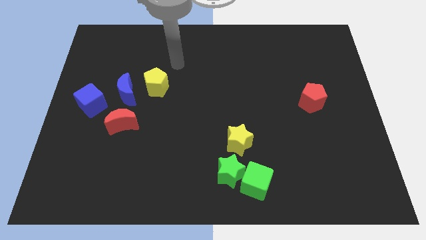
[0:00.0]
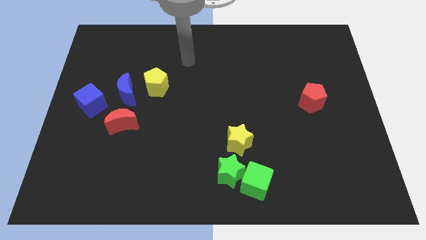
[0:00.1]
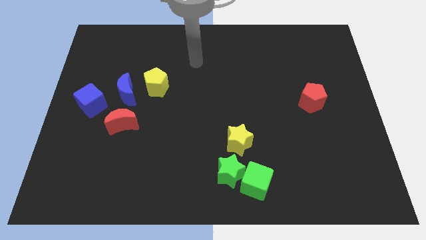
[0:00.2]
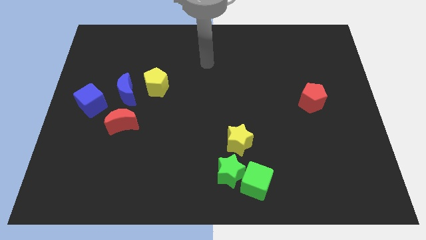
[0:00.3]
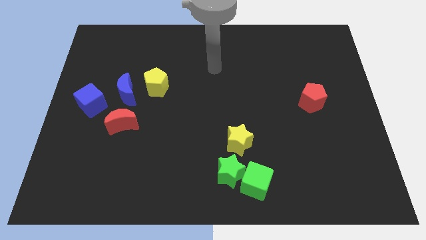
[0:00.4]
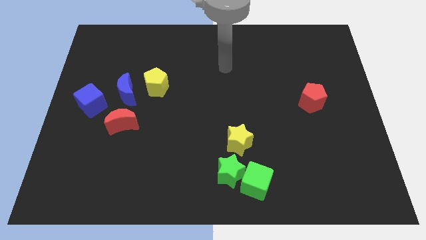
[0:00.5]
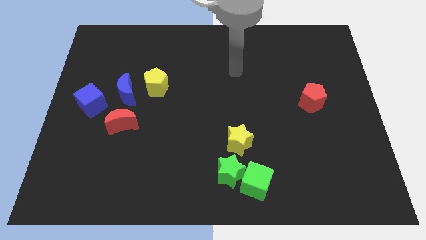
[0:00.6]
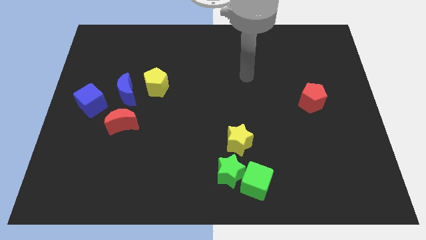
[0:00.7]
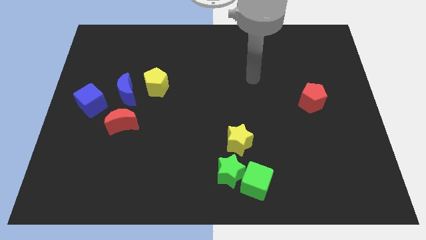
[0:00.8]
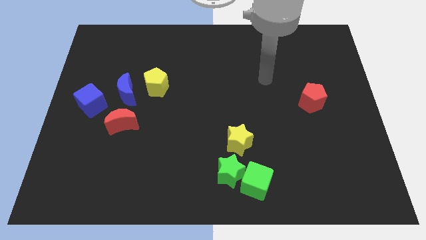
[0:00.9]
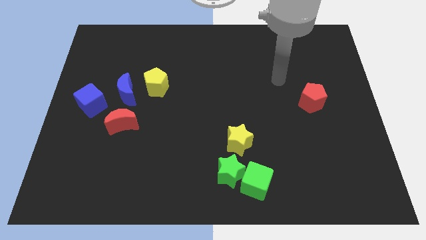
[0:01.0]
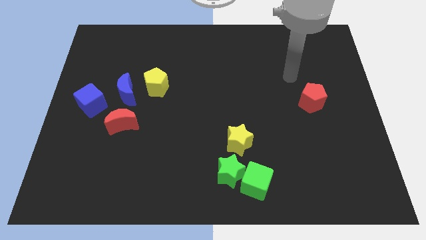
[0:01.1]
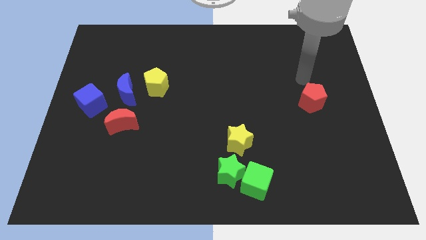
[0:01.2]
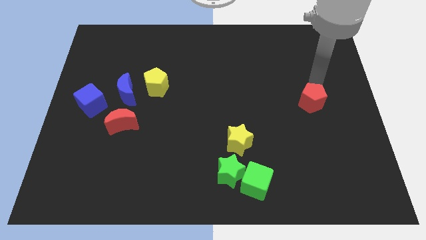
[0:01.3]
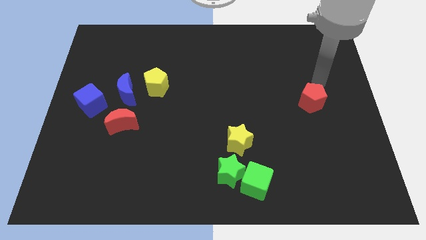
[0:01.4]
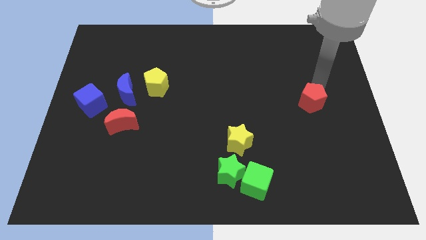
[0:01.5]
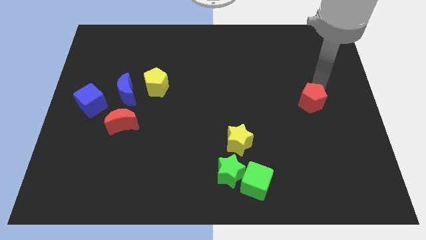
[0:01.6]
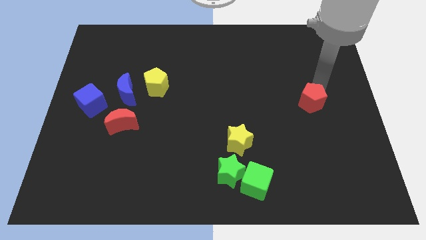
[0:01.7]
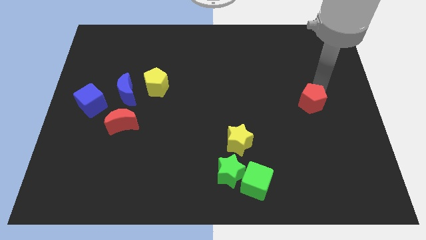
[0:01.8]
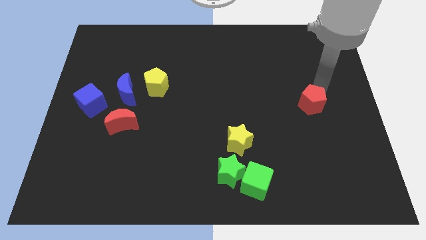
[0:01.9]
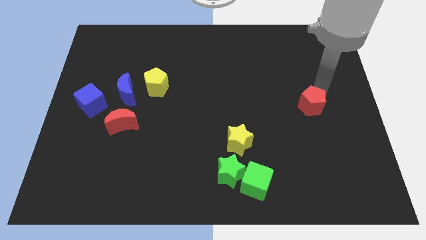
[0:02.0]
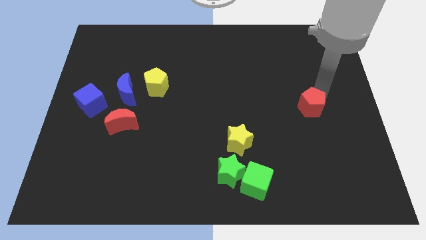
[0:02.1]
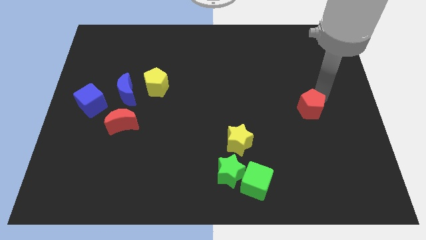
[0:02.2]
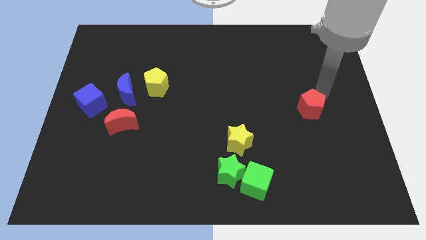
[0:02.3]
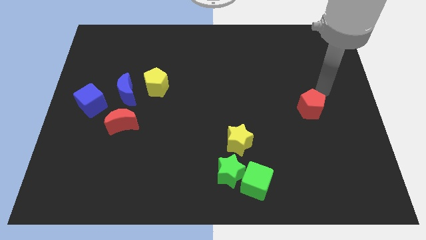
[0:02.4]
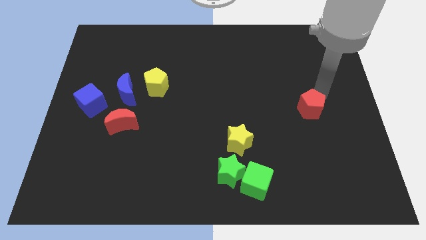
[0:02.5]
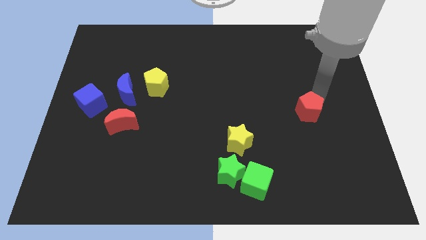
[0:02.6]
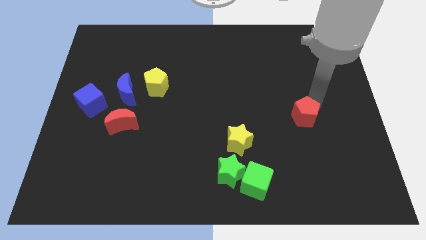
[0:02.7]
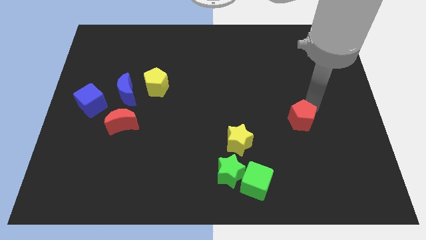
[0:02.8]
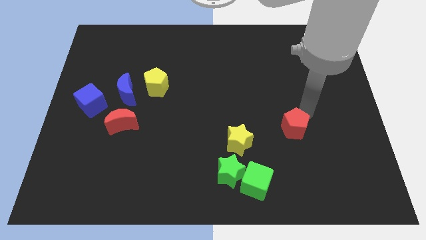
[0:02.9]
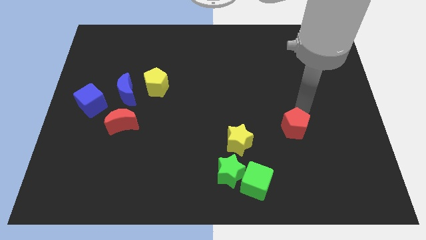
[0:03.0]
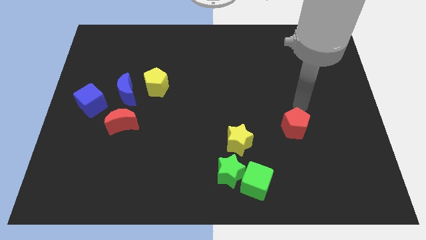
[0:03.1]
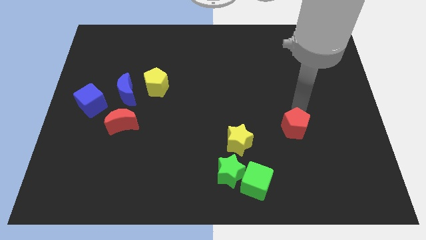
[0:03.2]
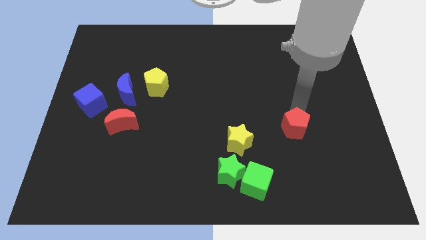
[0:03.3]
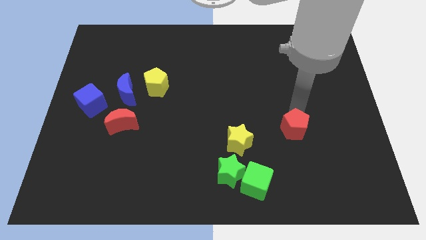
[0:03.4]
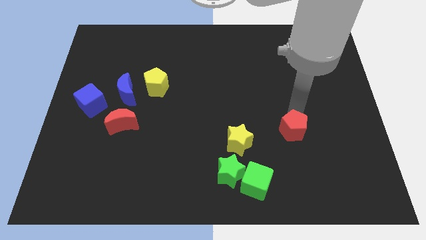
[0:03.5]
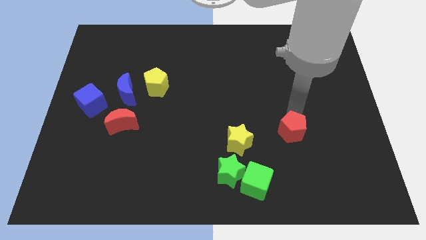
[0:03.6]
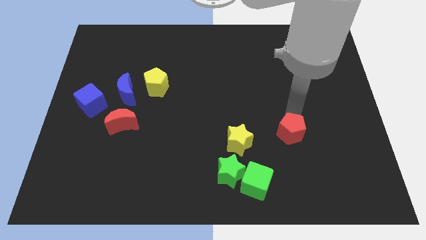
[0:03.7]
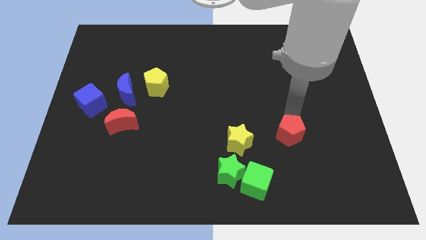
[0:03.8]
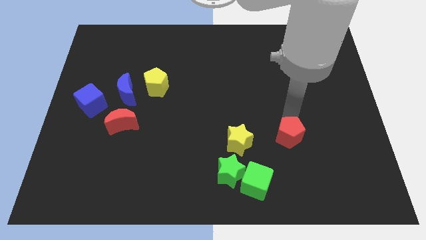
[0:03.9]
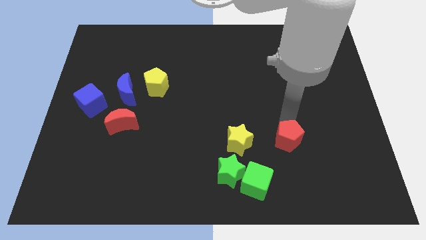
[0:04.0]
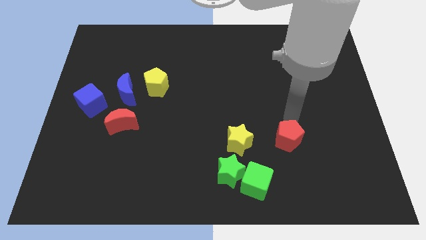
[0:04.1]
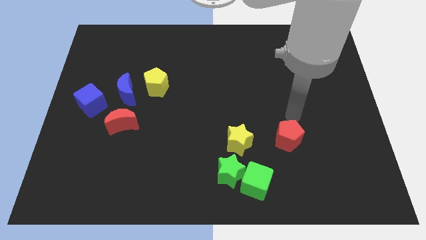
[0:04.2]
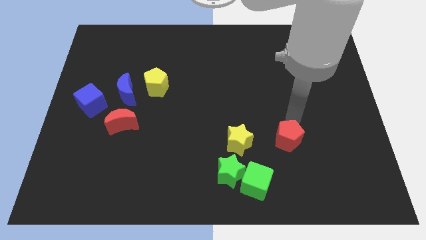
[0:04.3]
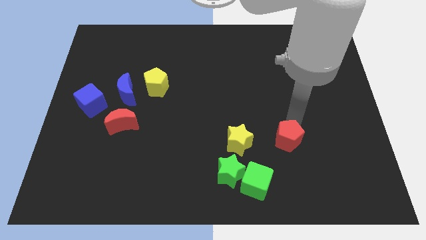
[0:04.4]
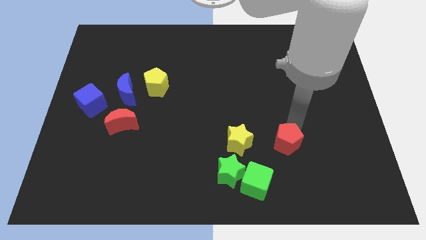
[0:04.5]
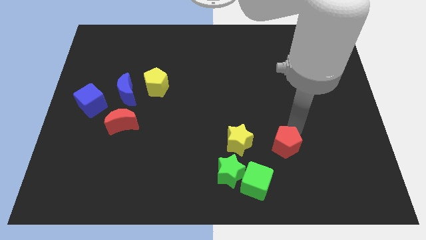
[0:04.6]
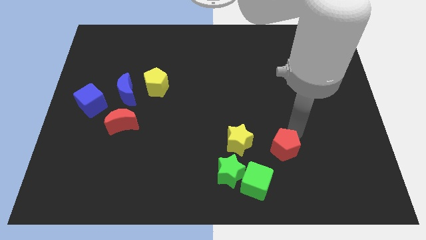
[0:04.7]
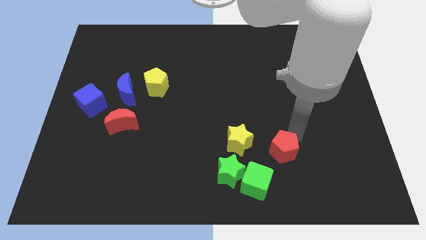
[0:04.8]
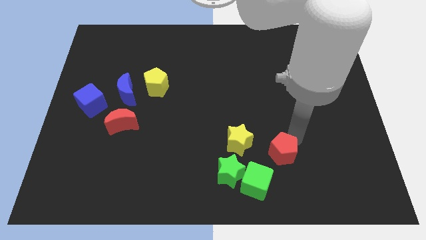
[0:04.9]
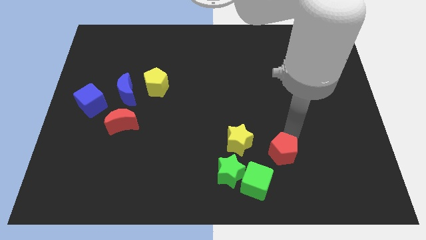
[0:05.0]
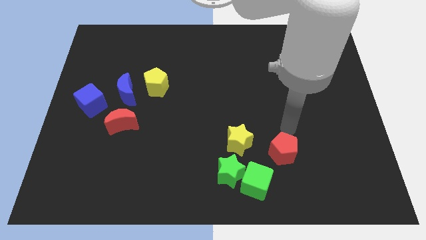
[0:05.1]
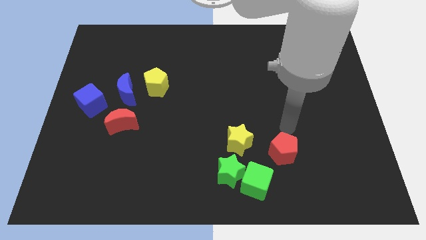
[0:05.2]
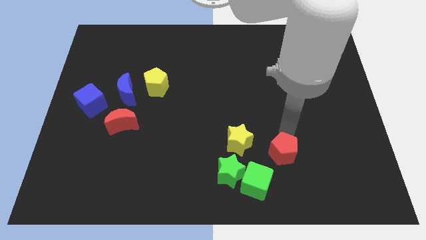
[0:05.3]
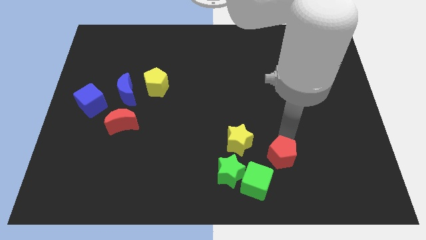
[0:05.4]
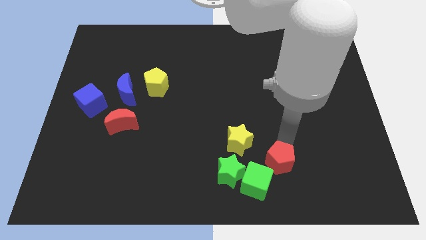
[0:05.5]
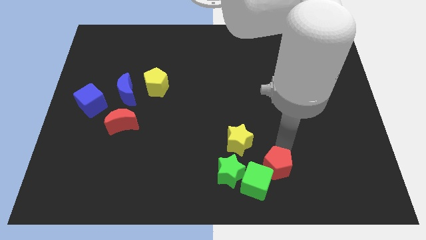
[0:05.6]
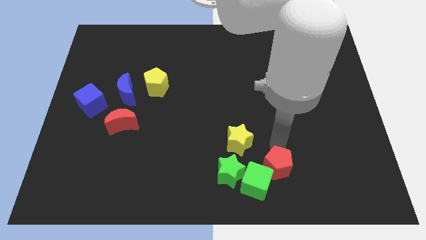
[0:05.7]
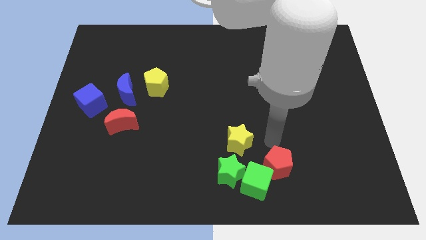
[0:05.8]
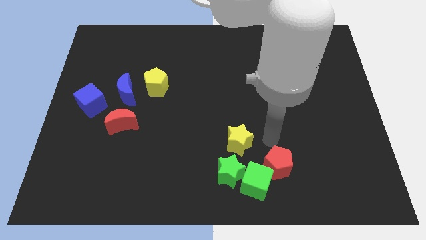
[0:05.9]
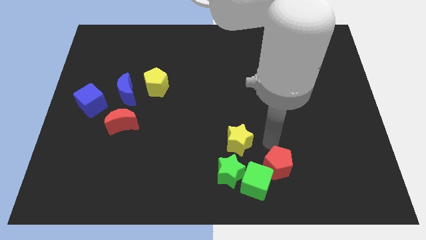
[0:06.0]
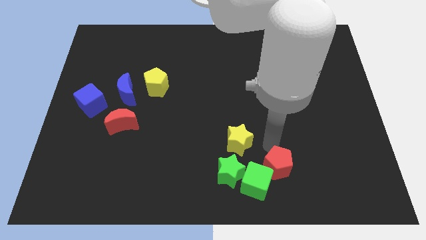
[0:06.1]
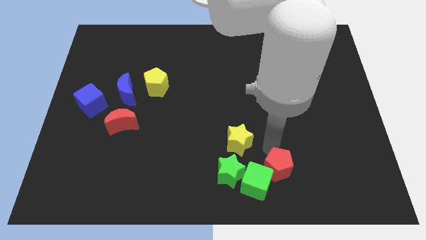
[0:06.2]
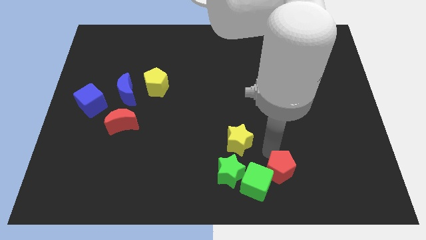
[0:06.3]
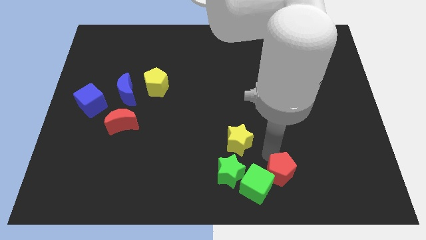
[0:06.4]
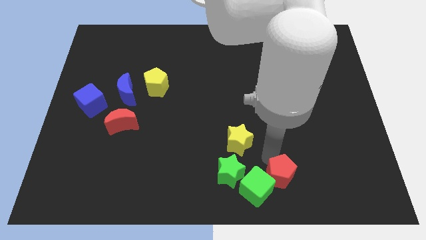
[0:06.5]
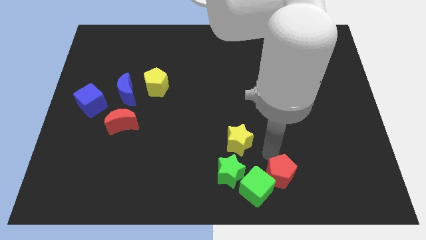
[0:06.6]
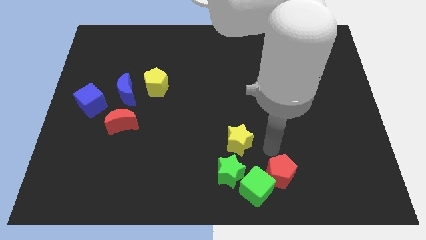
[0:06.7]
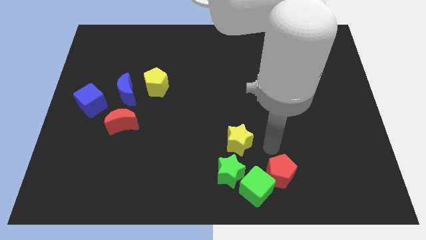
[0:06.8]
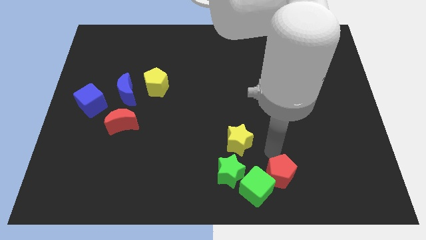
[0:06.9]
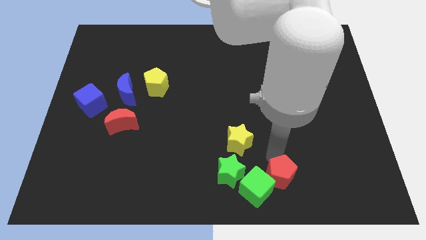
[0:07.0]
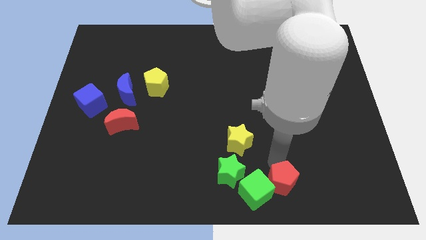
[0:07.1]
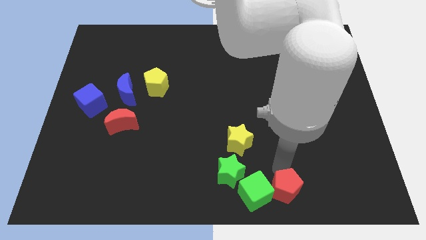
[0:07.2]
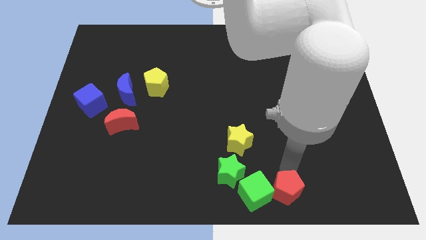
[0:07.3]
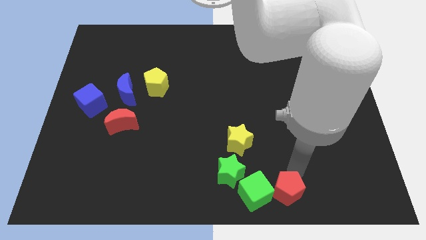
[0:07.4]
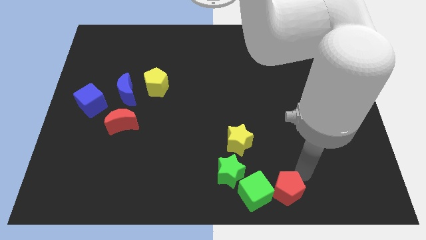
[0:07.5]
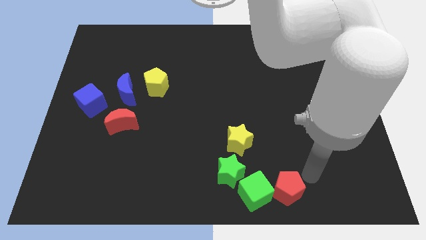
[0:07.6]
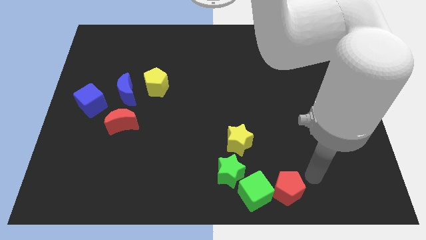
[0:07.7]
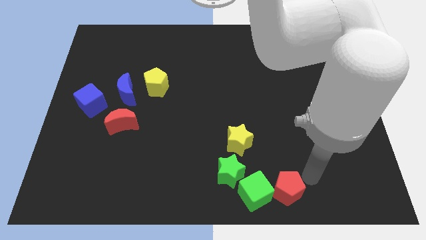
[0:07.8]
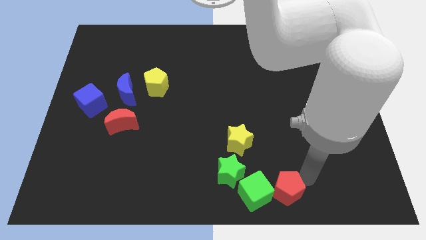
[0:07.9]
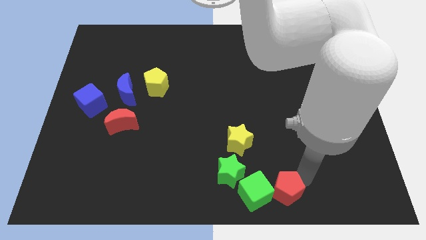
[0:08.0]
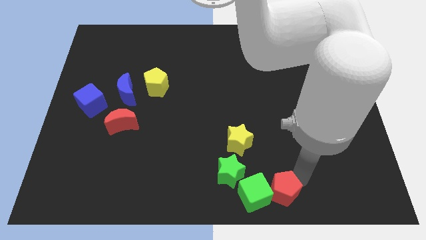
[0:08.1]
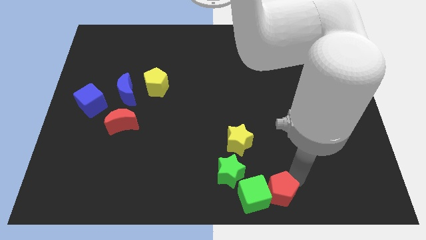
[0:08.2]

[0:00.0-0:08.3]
push the red pentagon to the bottom
